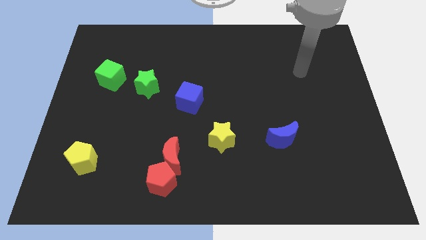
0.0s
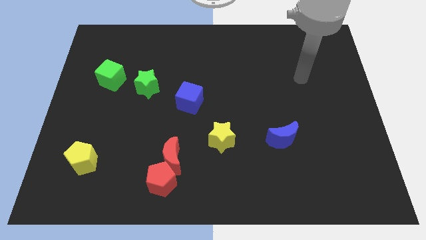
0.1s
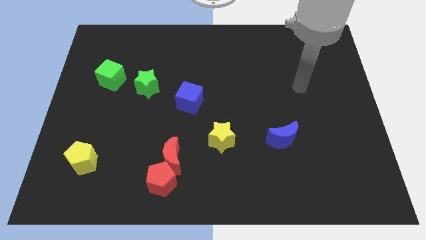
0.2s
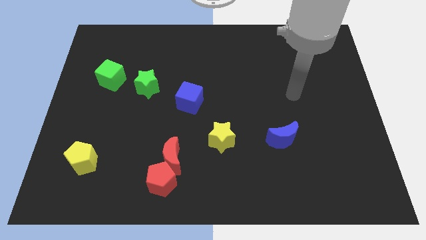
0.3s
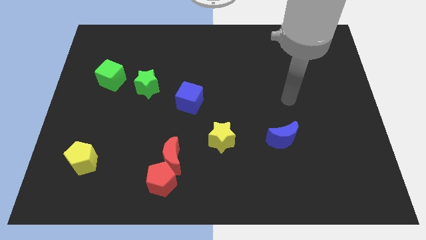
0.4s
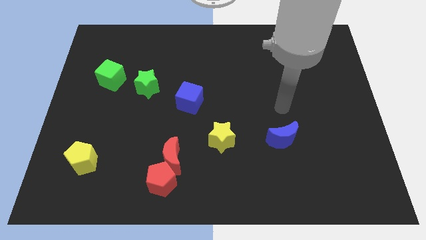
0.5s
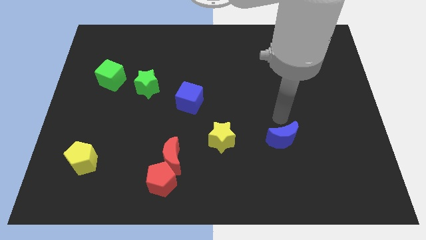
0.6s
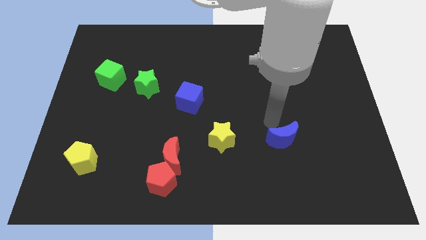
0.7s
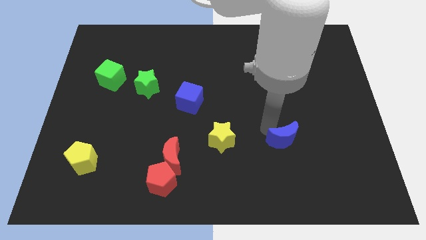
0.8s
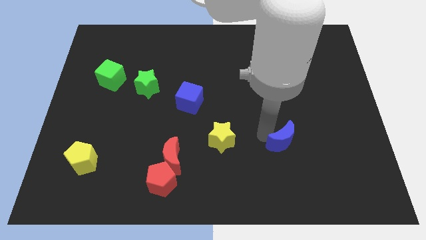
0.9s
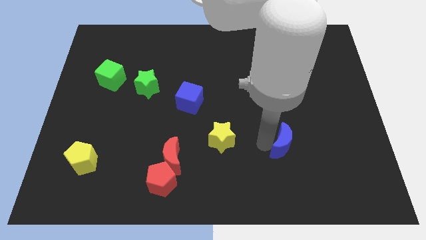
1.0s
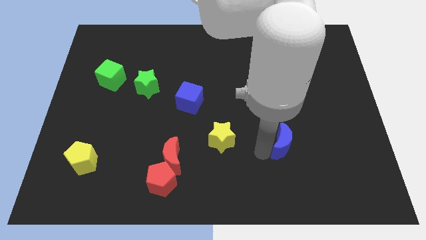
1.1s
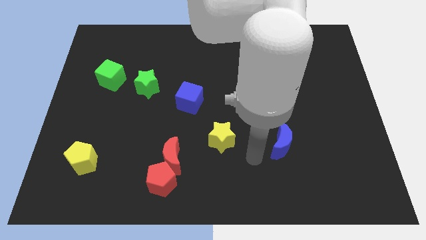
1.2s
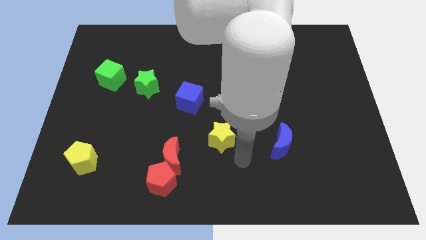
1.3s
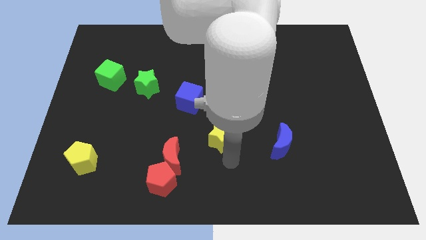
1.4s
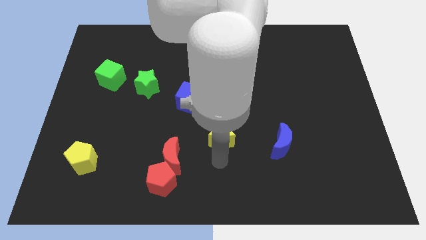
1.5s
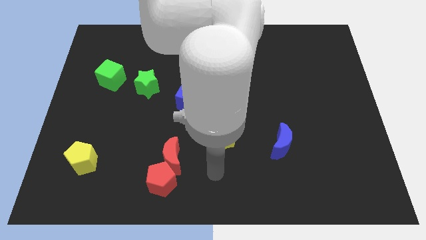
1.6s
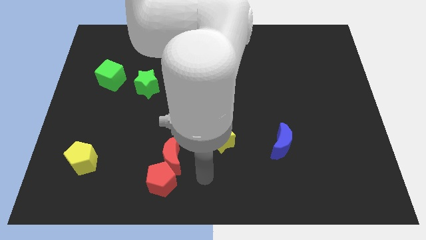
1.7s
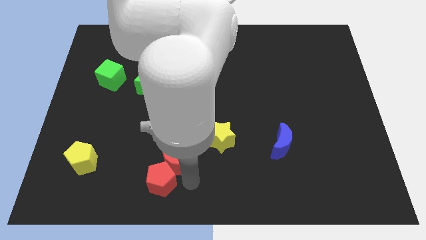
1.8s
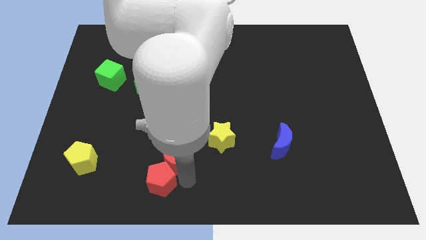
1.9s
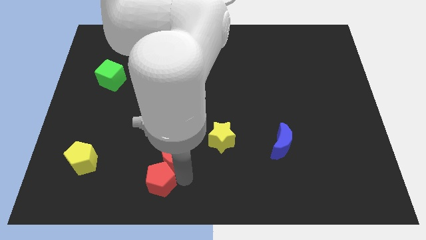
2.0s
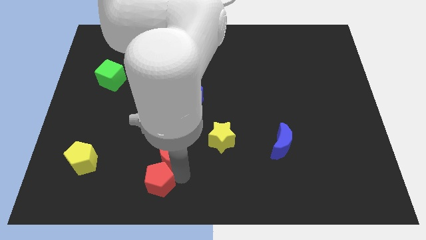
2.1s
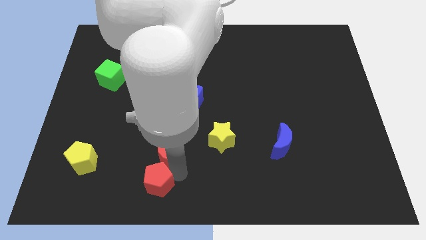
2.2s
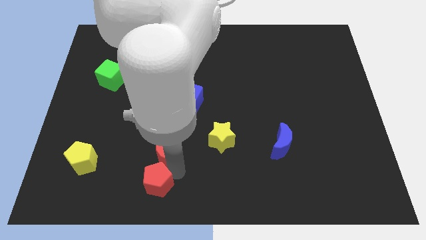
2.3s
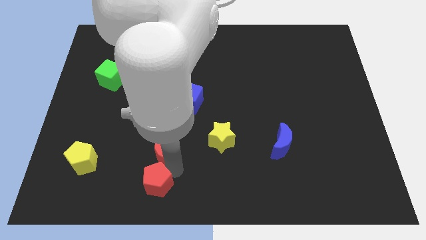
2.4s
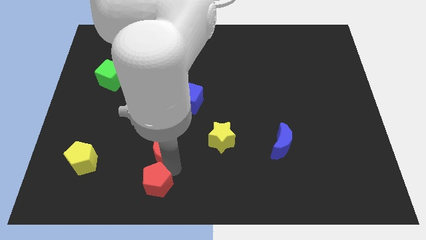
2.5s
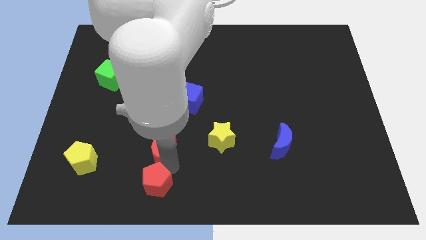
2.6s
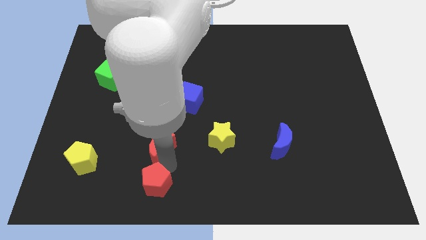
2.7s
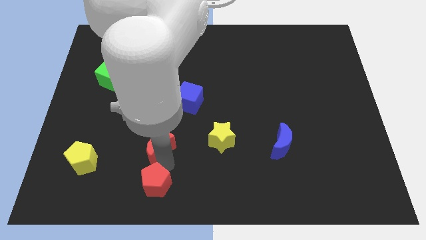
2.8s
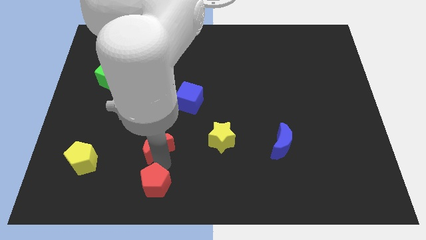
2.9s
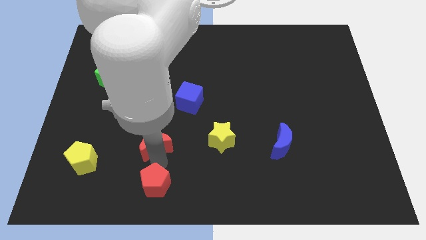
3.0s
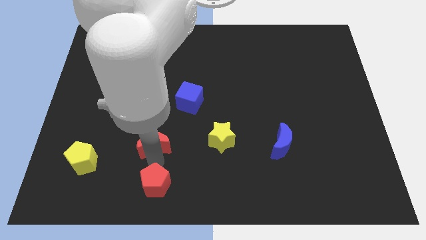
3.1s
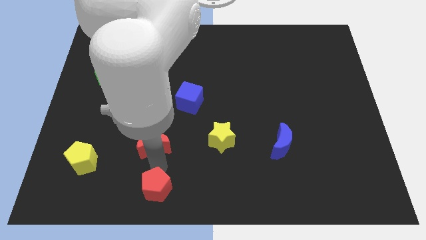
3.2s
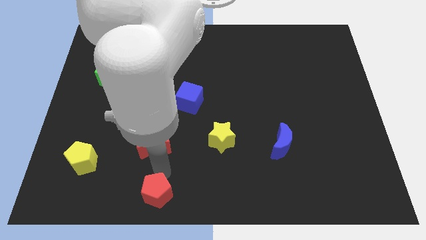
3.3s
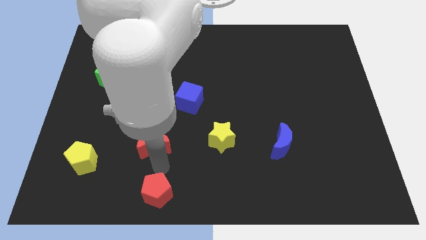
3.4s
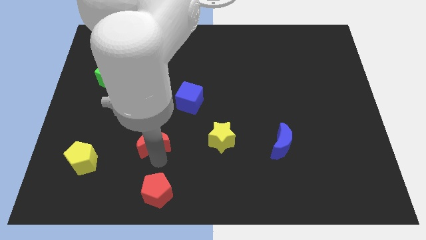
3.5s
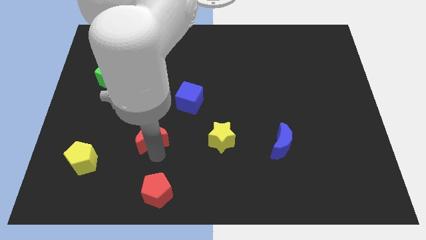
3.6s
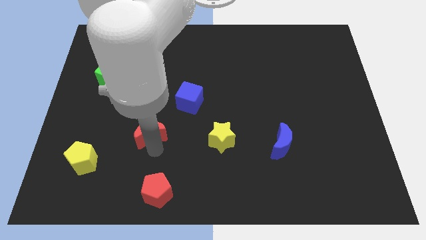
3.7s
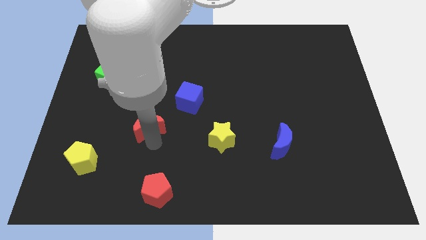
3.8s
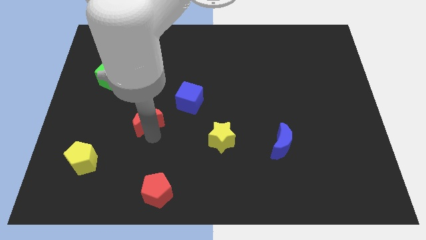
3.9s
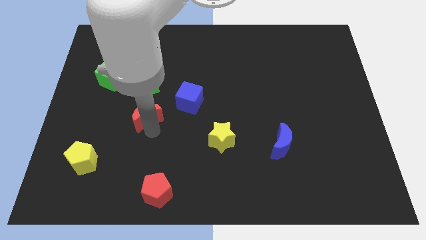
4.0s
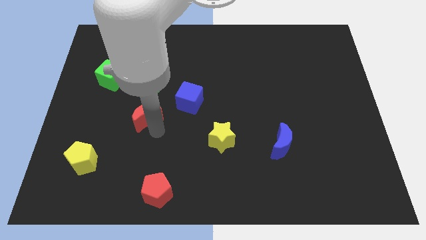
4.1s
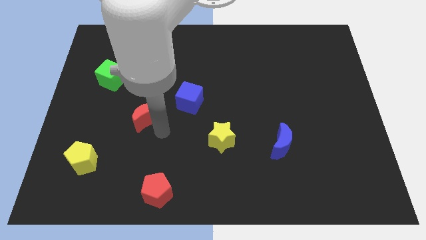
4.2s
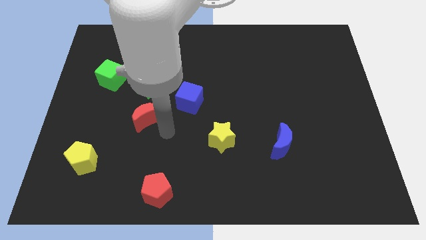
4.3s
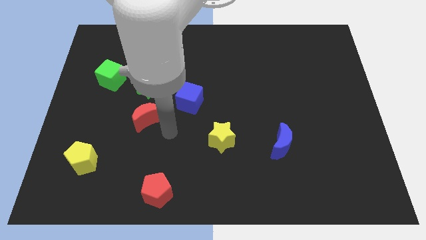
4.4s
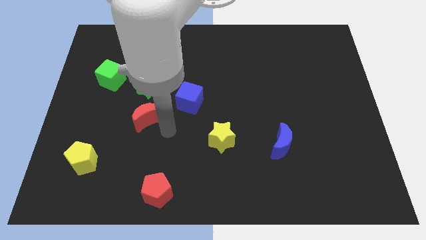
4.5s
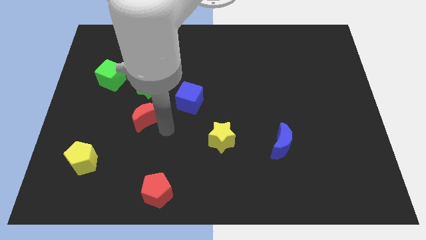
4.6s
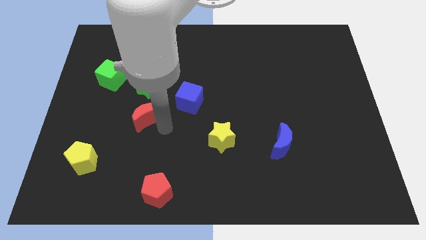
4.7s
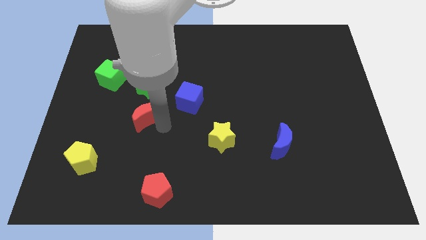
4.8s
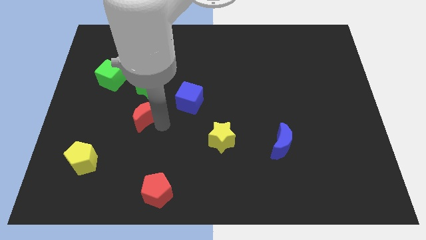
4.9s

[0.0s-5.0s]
move the red moon left of the blue cube

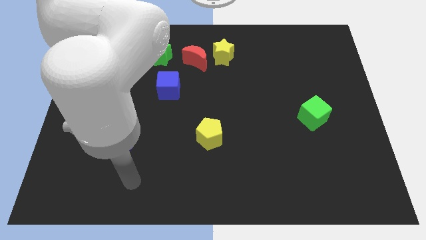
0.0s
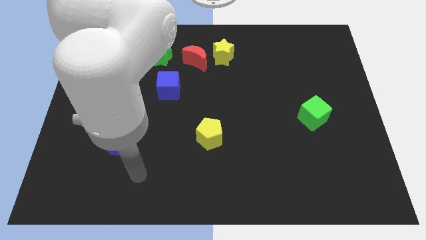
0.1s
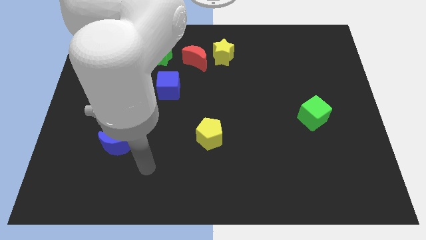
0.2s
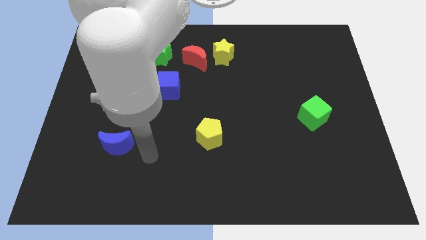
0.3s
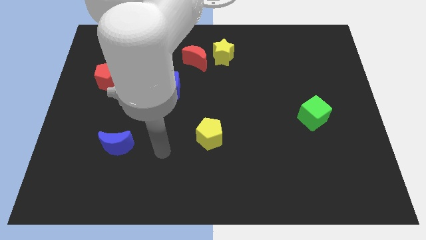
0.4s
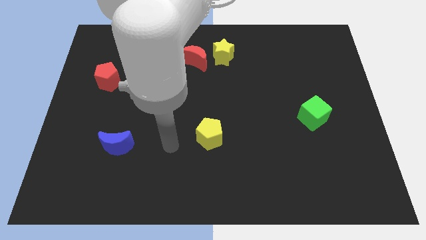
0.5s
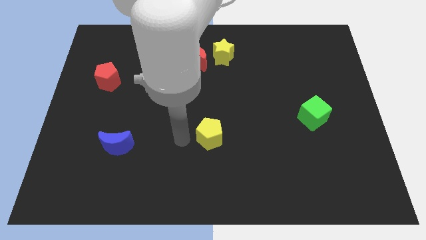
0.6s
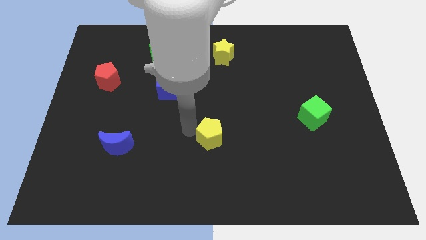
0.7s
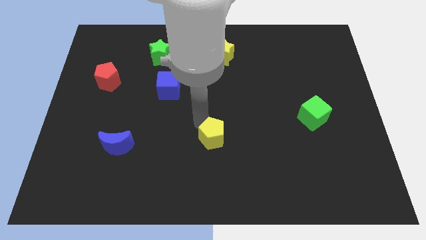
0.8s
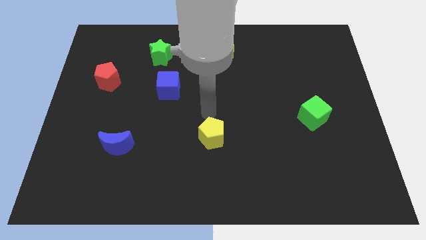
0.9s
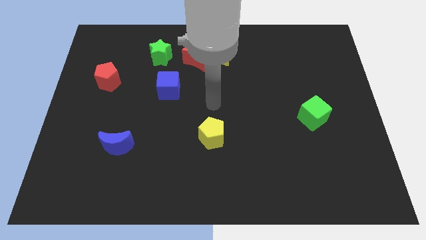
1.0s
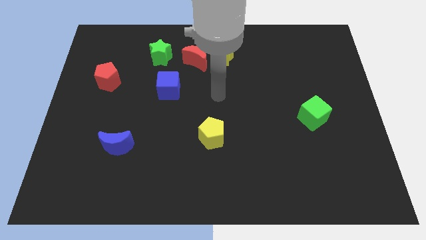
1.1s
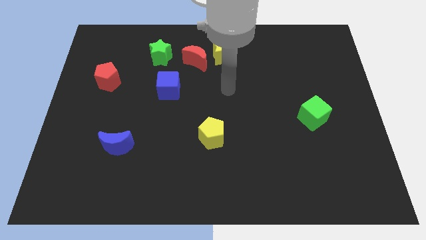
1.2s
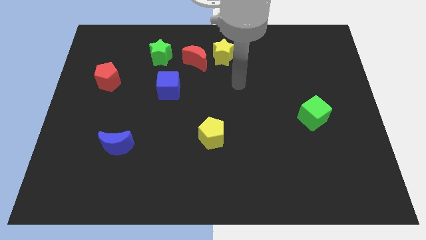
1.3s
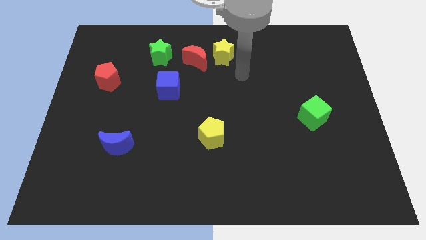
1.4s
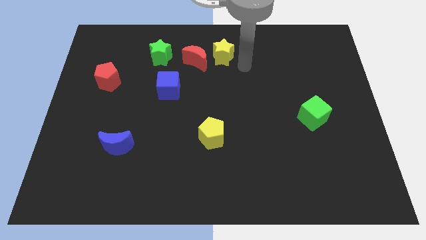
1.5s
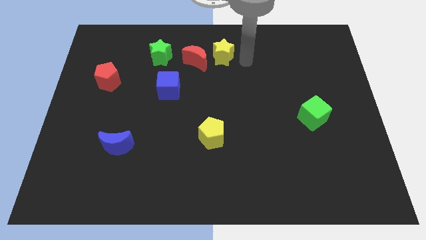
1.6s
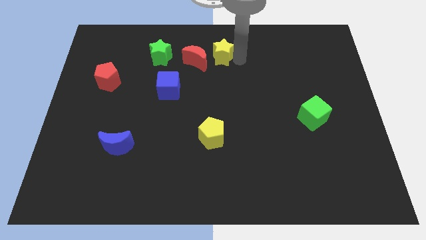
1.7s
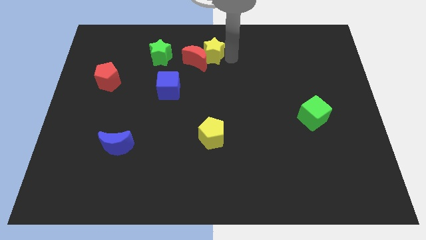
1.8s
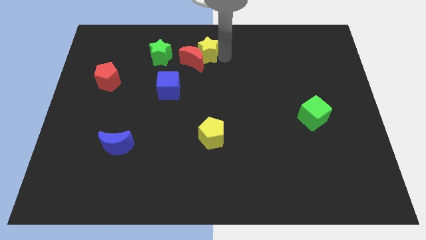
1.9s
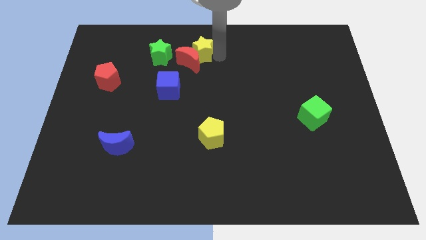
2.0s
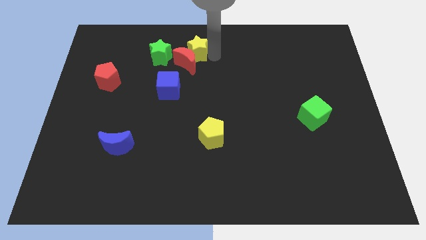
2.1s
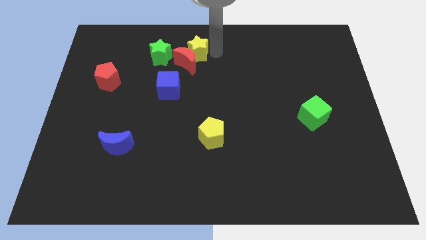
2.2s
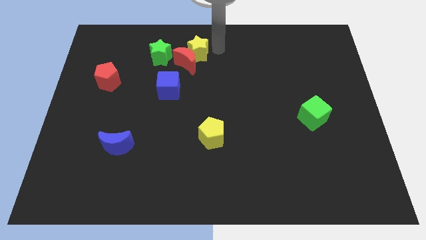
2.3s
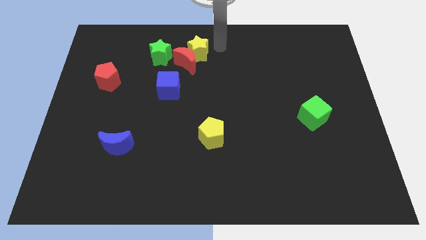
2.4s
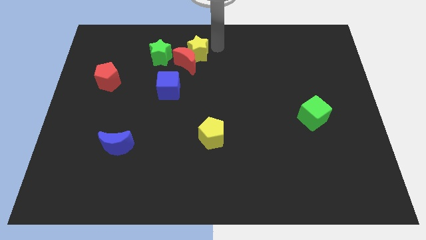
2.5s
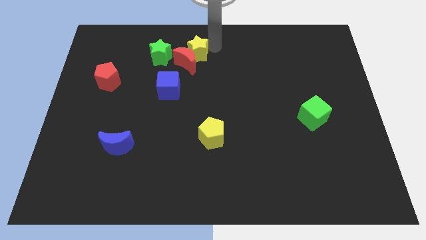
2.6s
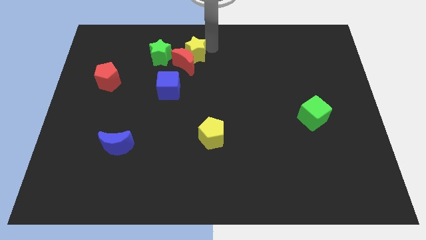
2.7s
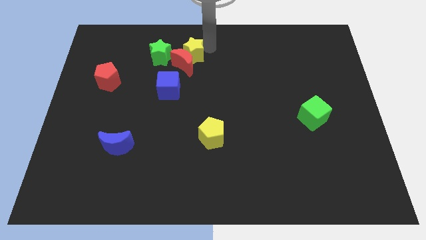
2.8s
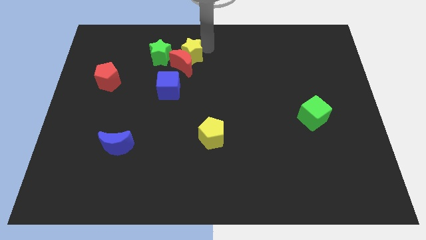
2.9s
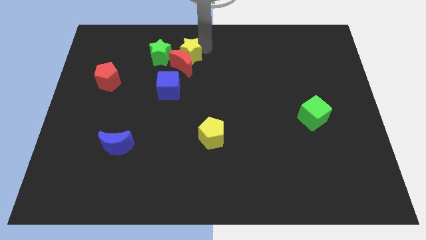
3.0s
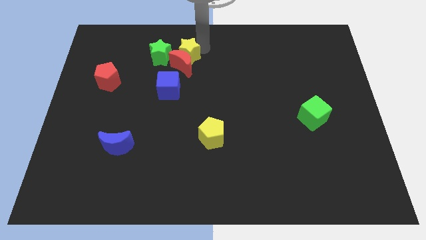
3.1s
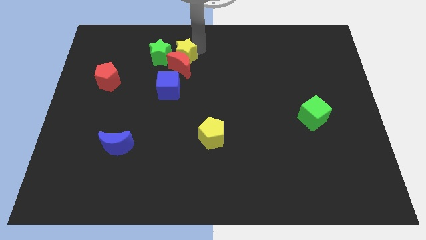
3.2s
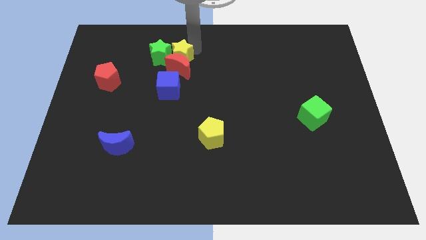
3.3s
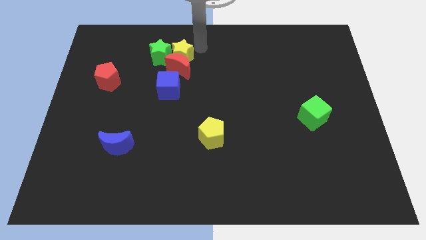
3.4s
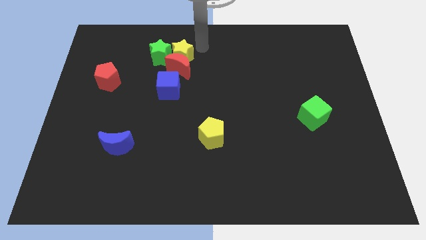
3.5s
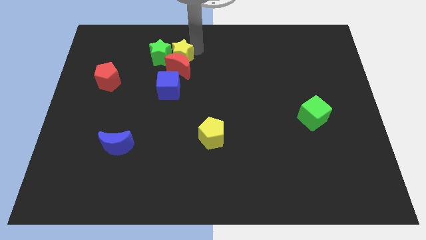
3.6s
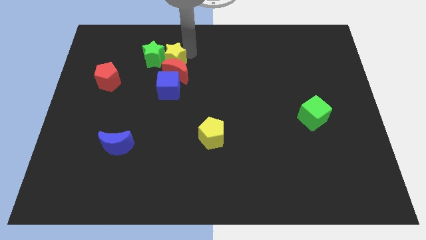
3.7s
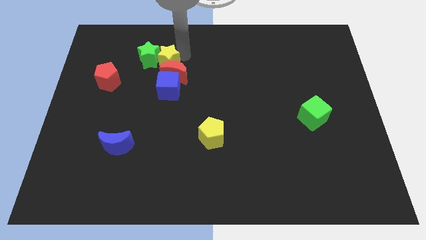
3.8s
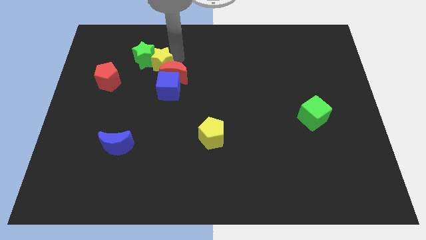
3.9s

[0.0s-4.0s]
put the yellow star diagonally up and to the left of the blue cube
